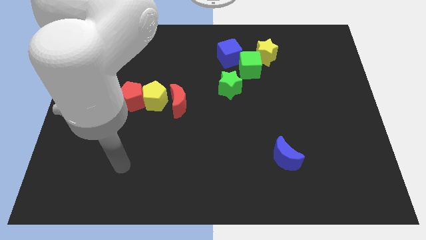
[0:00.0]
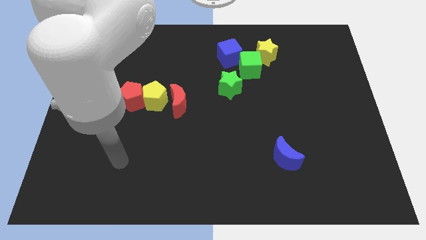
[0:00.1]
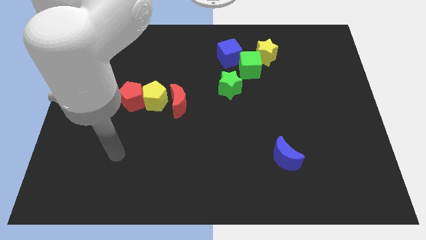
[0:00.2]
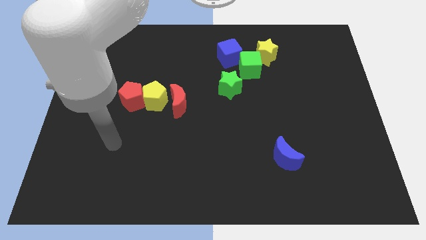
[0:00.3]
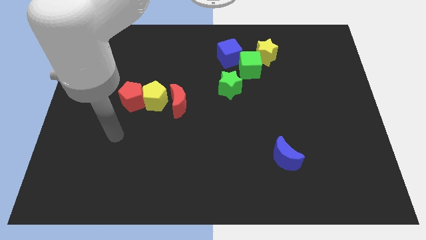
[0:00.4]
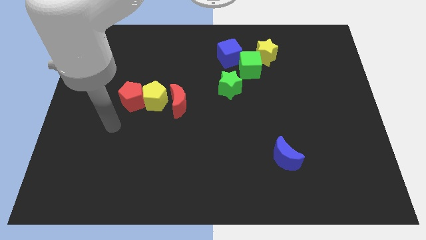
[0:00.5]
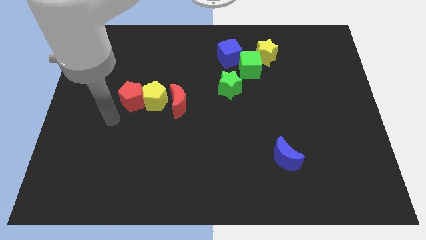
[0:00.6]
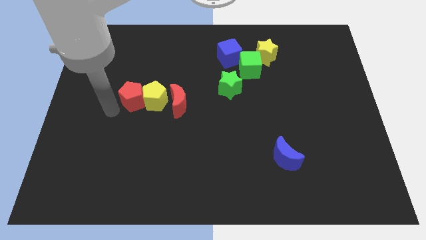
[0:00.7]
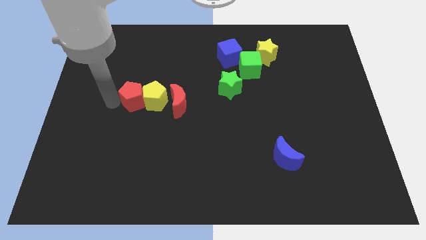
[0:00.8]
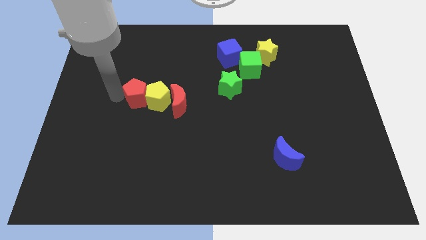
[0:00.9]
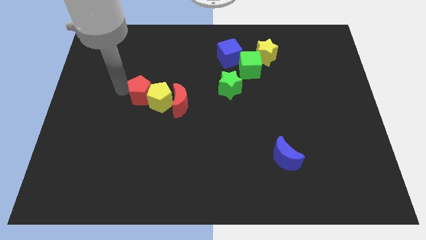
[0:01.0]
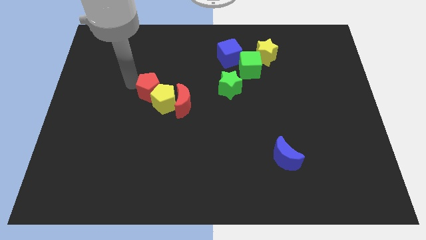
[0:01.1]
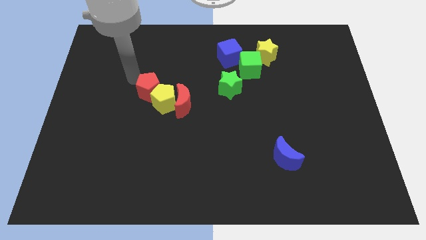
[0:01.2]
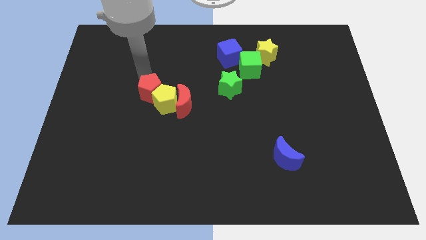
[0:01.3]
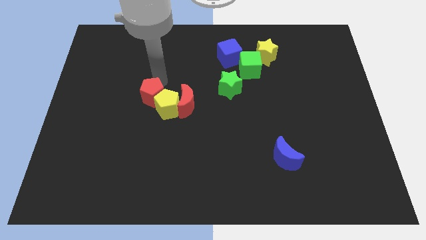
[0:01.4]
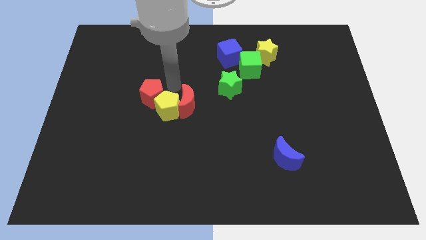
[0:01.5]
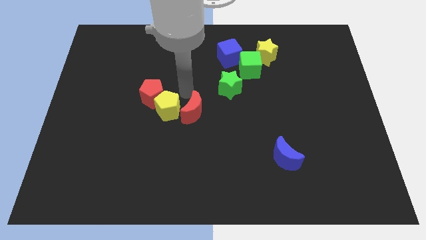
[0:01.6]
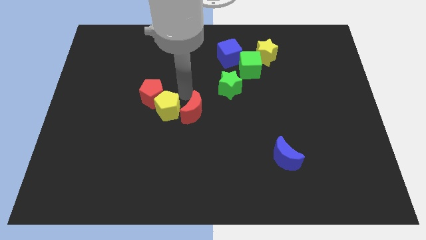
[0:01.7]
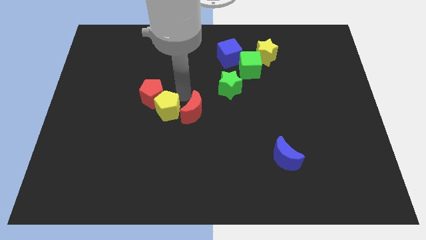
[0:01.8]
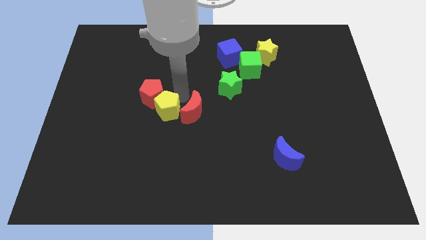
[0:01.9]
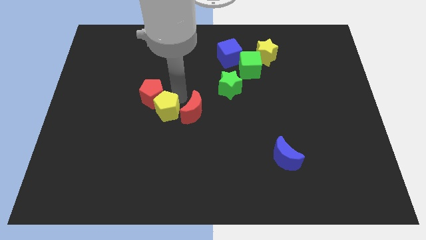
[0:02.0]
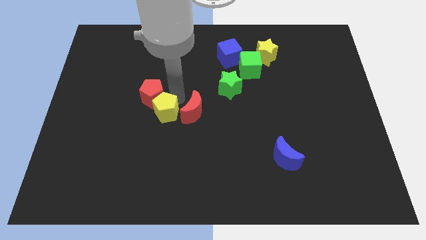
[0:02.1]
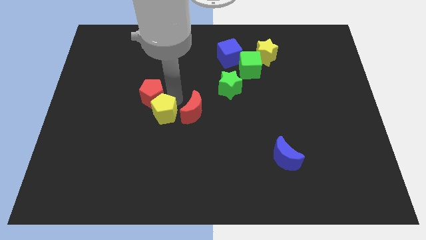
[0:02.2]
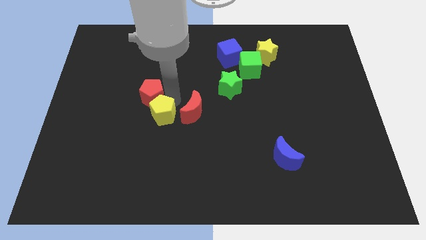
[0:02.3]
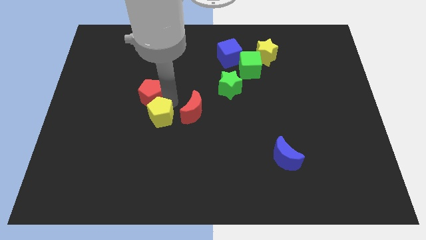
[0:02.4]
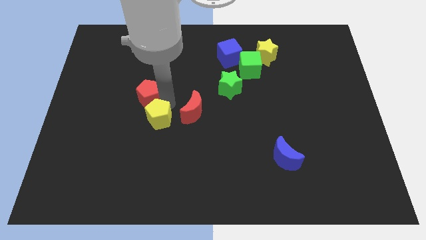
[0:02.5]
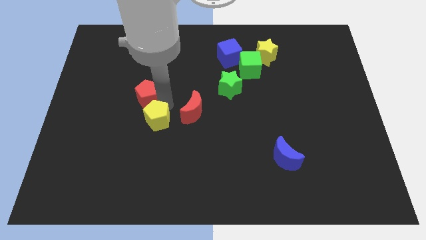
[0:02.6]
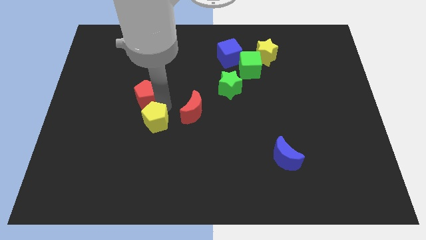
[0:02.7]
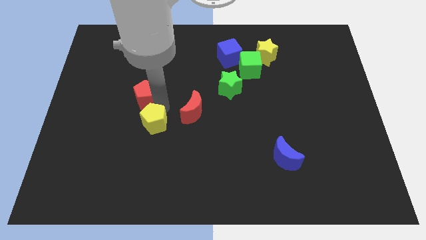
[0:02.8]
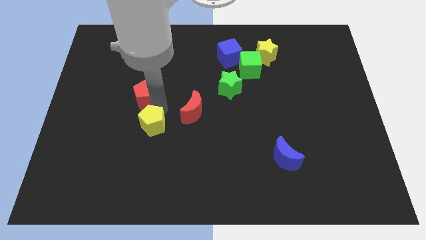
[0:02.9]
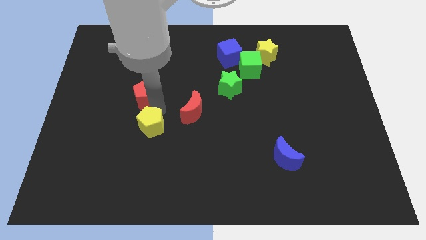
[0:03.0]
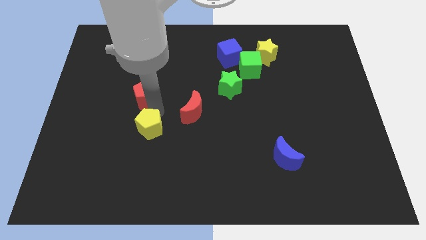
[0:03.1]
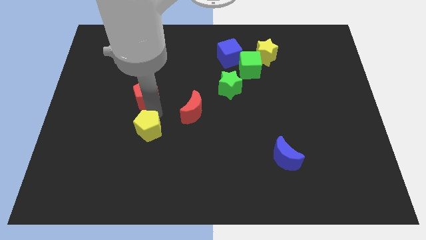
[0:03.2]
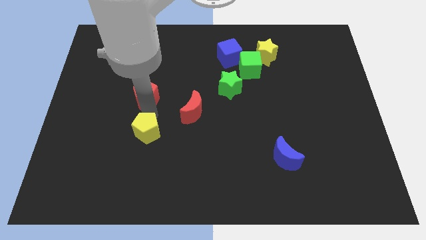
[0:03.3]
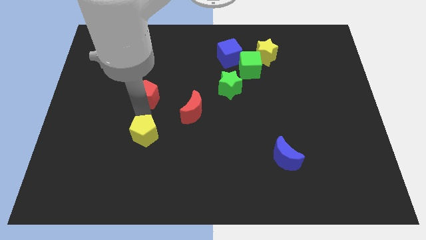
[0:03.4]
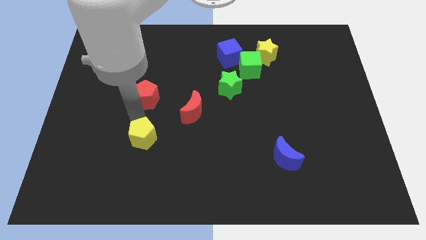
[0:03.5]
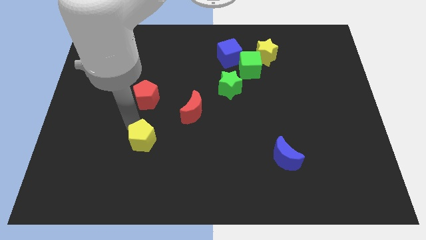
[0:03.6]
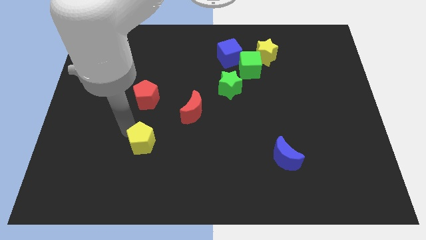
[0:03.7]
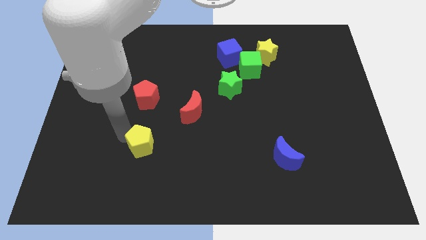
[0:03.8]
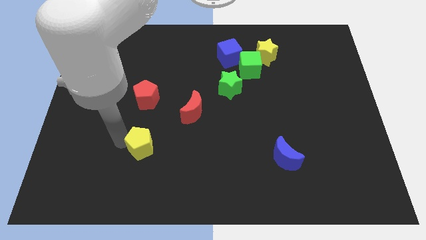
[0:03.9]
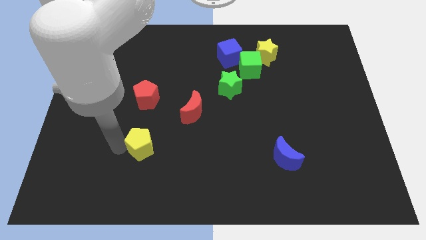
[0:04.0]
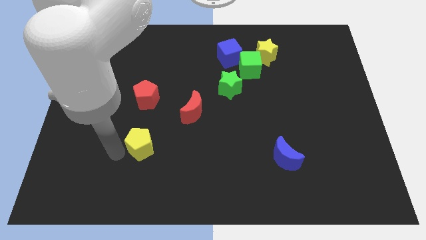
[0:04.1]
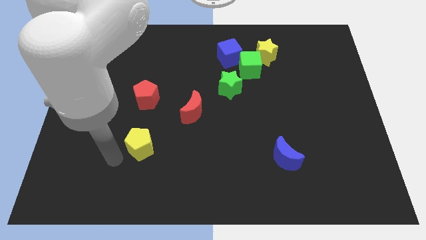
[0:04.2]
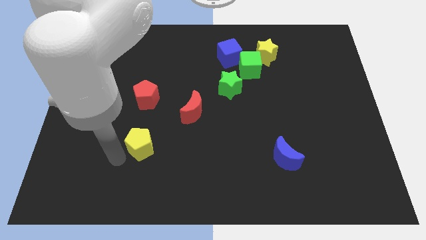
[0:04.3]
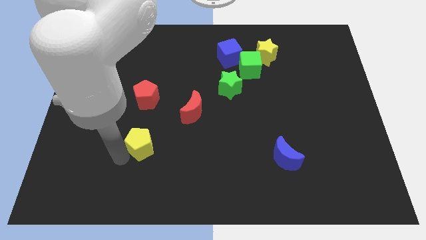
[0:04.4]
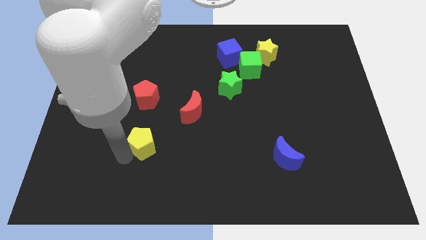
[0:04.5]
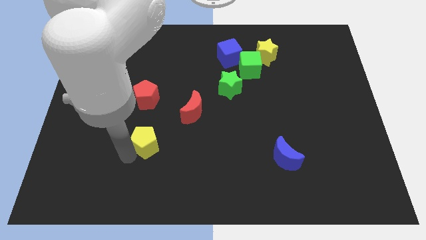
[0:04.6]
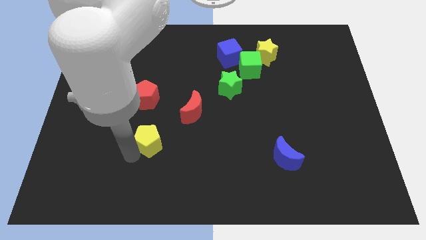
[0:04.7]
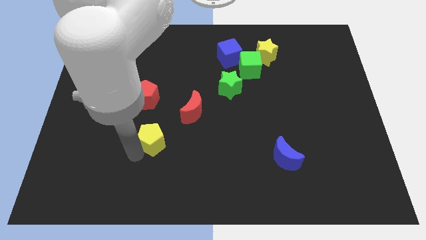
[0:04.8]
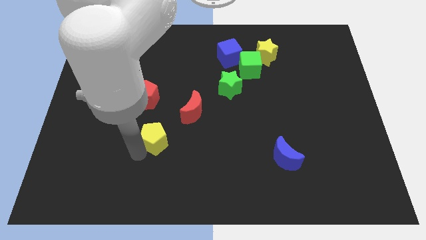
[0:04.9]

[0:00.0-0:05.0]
slightly slide the yellow pentagon downwards and then right

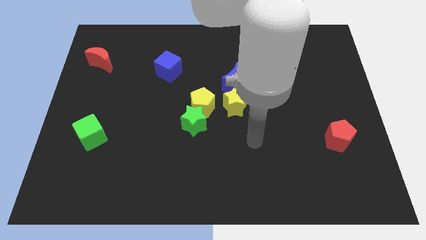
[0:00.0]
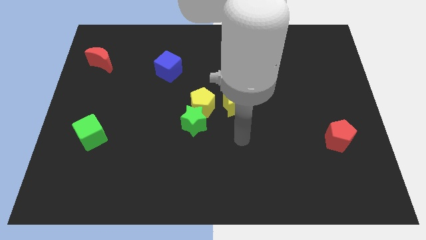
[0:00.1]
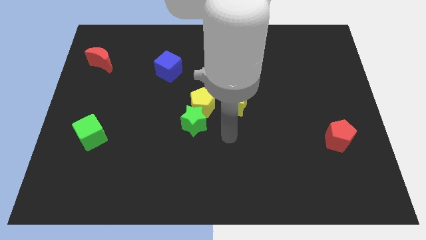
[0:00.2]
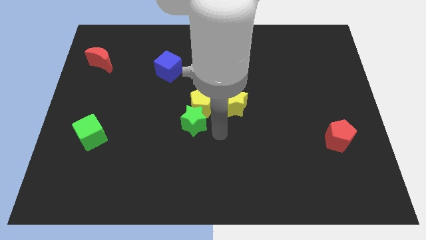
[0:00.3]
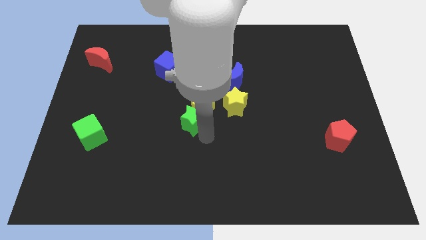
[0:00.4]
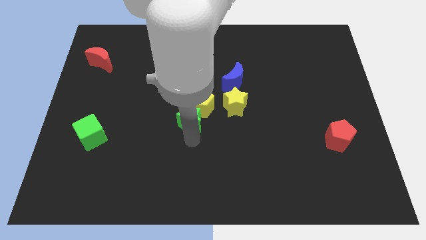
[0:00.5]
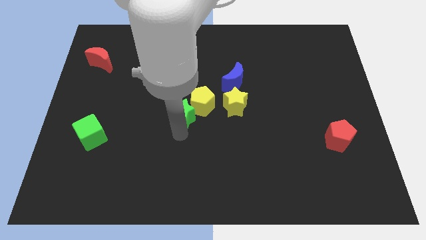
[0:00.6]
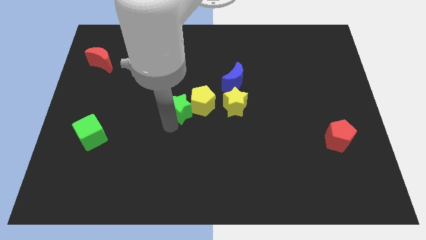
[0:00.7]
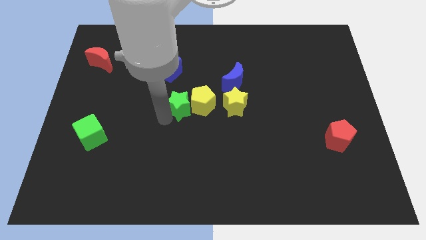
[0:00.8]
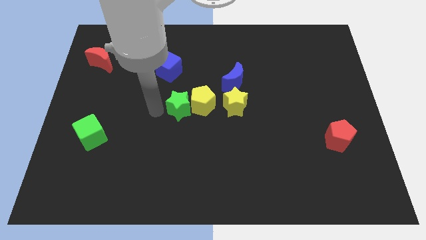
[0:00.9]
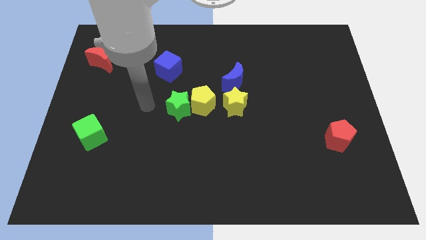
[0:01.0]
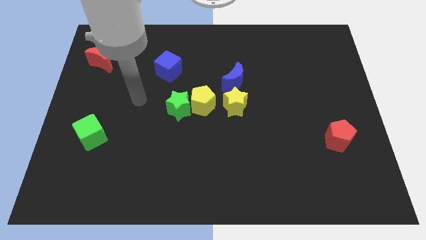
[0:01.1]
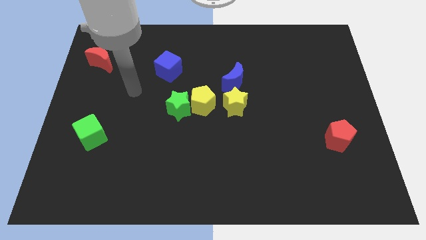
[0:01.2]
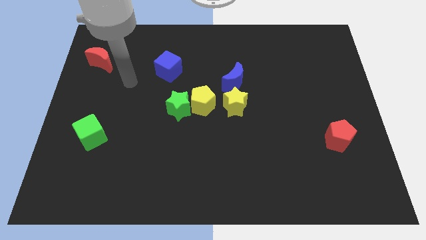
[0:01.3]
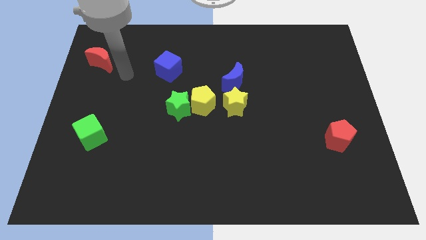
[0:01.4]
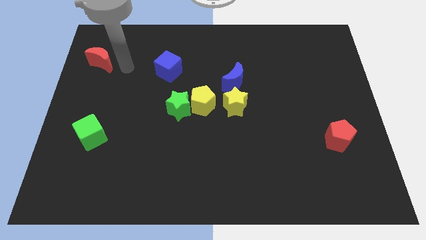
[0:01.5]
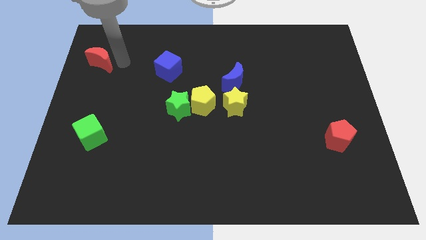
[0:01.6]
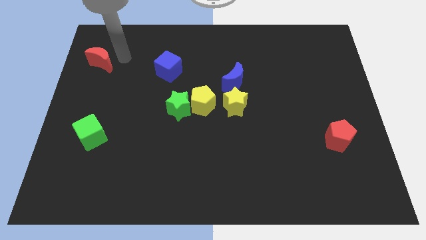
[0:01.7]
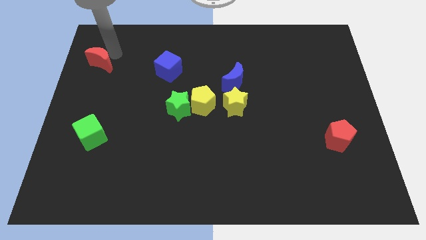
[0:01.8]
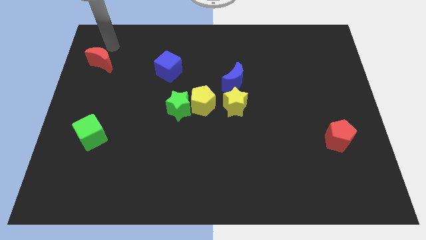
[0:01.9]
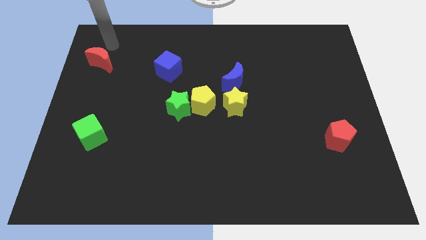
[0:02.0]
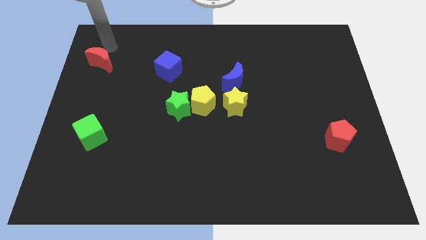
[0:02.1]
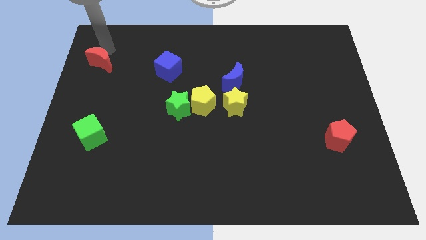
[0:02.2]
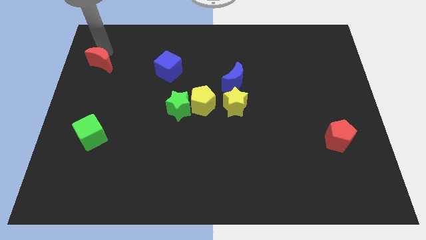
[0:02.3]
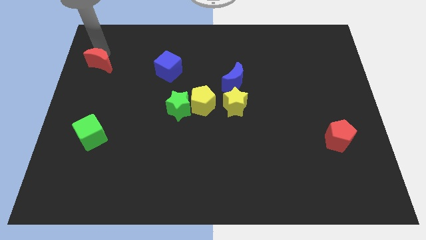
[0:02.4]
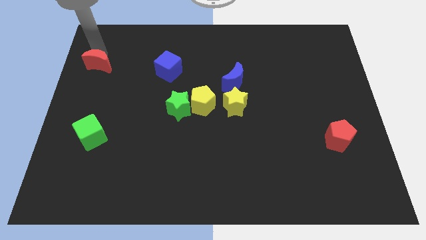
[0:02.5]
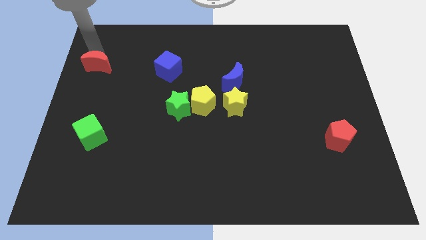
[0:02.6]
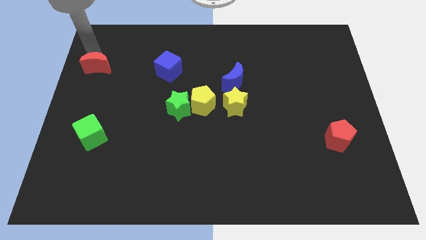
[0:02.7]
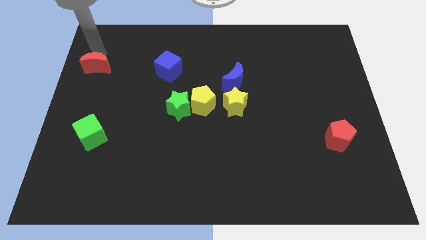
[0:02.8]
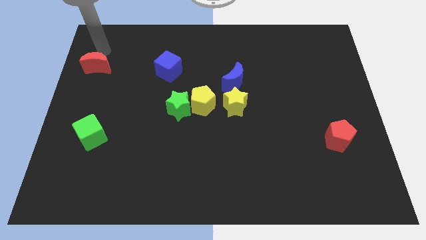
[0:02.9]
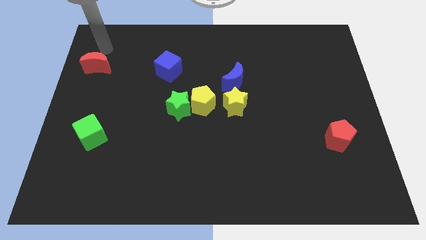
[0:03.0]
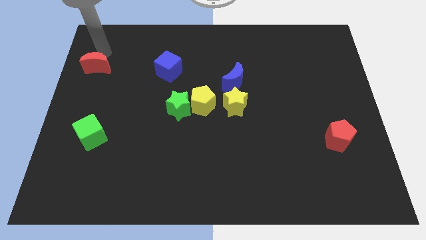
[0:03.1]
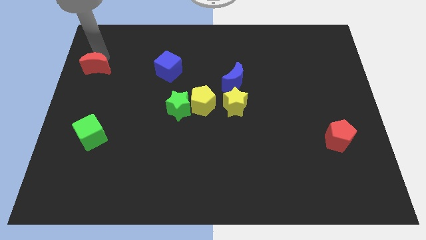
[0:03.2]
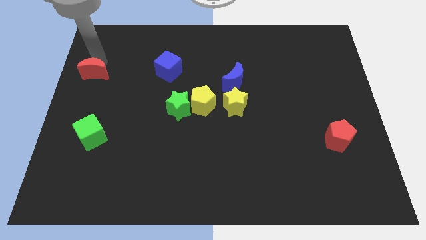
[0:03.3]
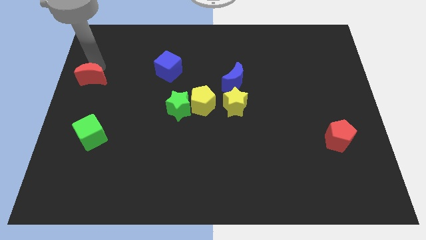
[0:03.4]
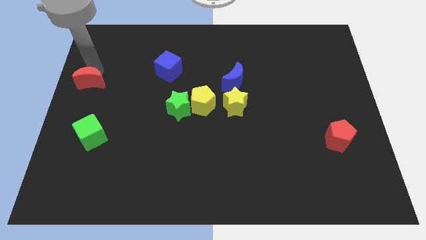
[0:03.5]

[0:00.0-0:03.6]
move the red moon a little down
